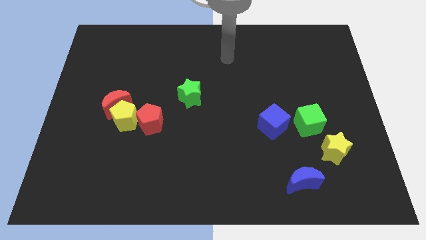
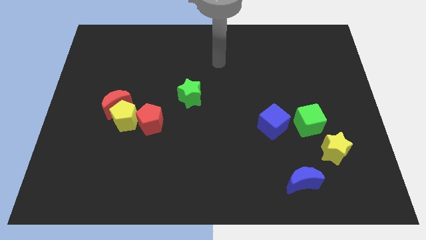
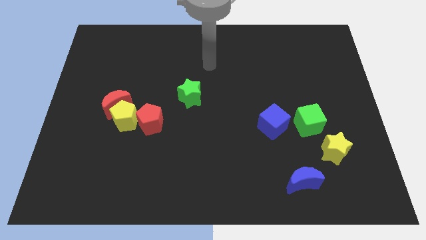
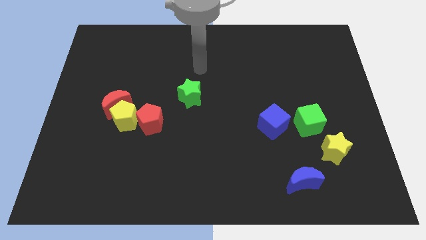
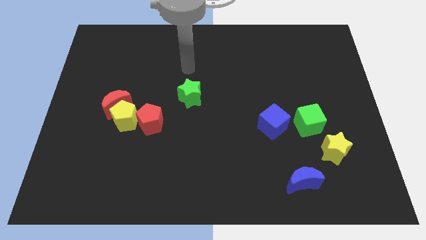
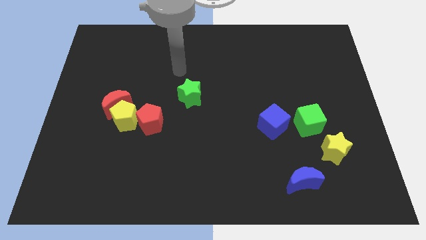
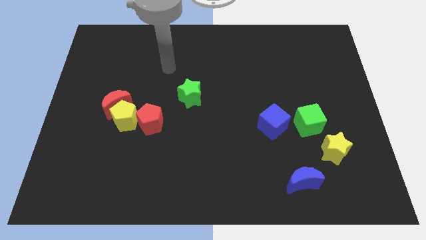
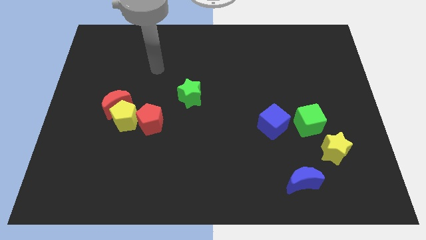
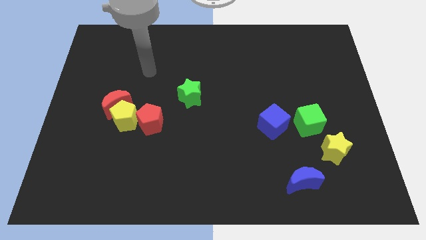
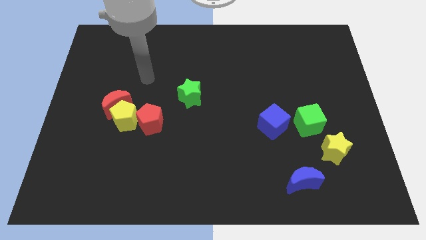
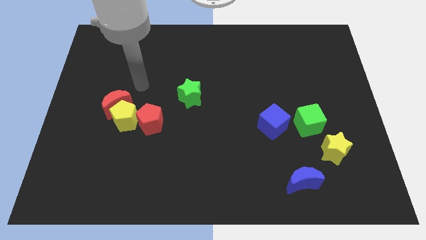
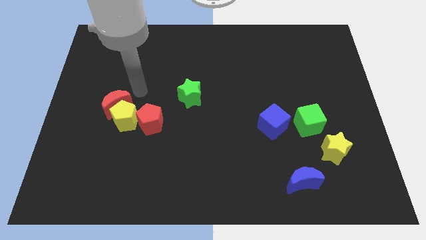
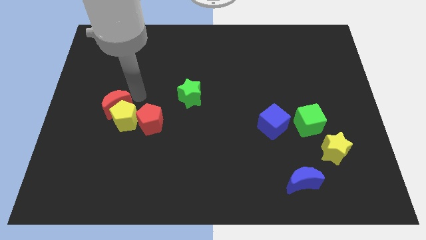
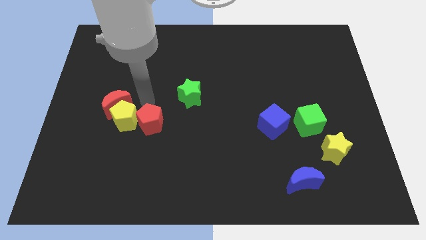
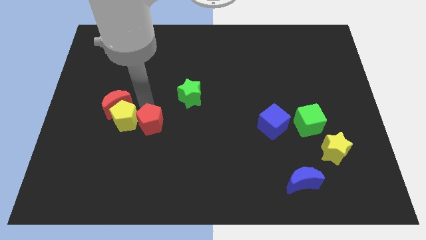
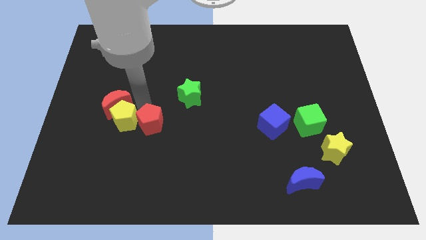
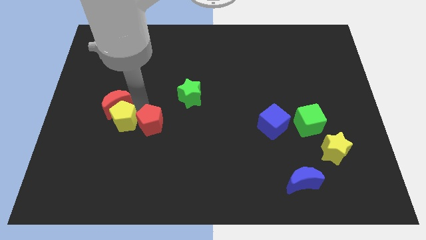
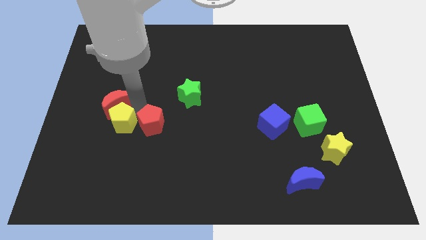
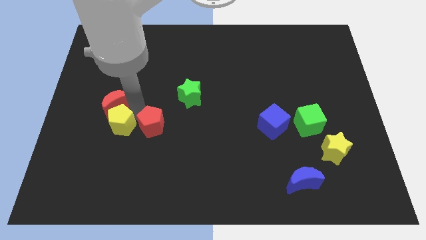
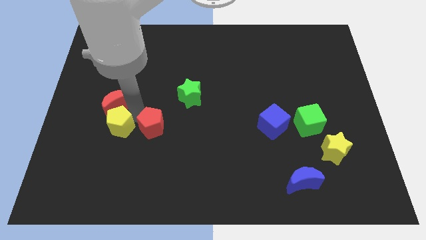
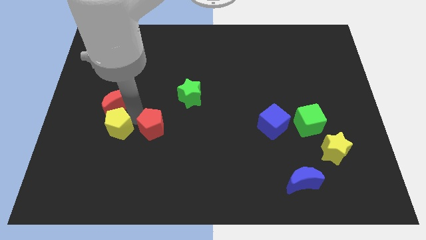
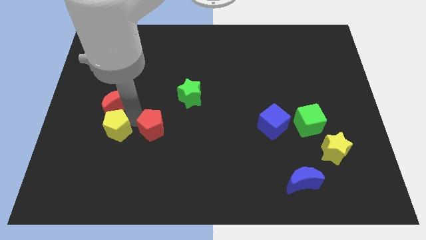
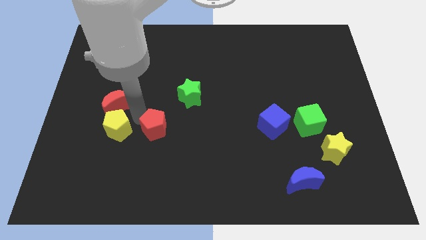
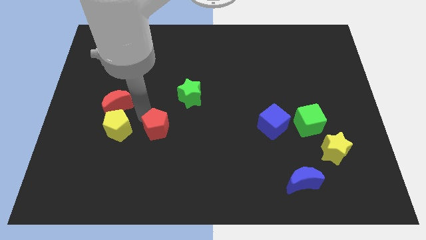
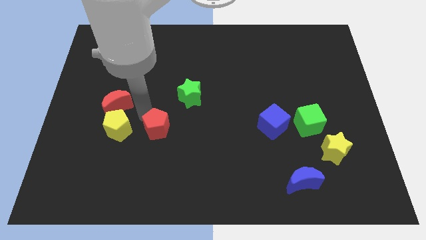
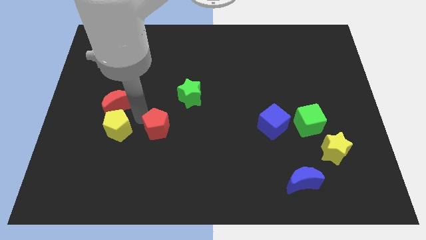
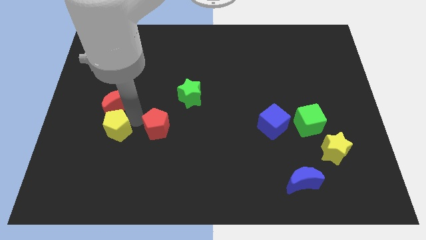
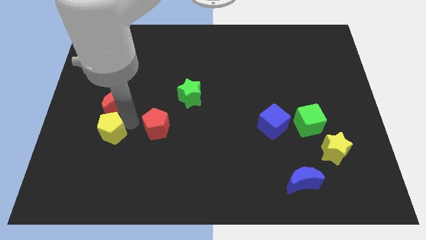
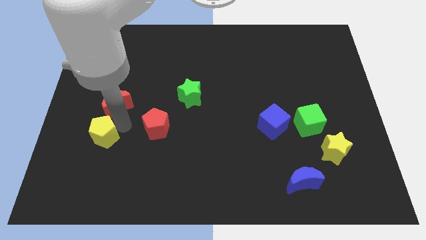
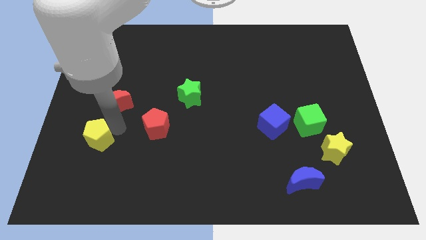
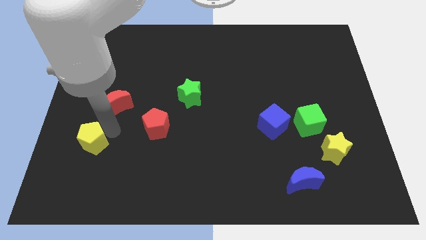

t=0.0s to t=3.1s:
pull the yellow pentagon apart from the red moon and red pentagon

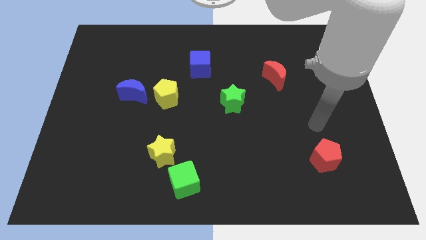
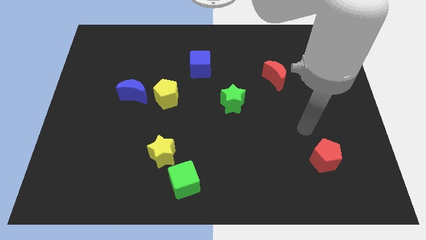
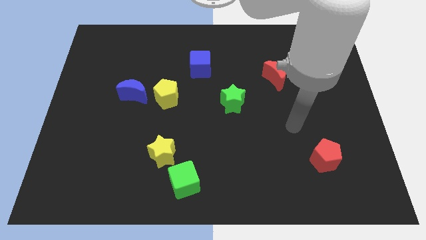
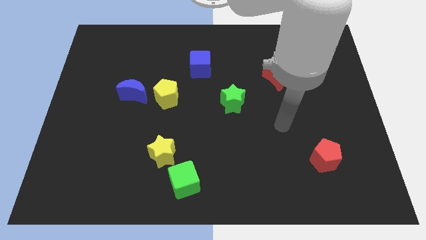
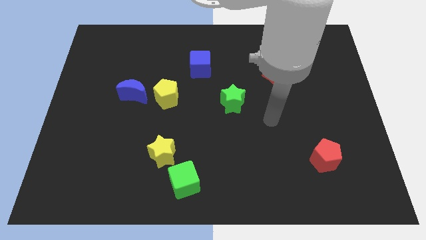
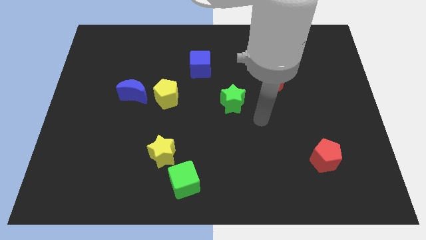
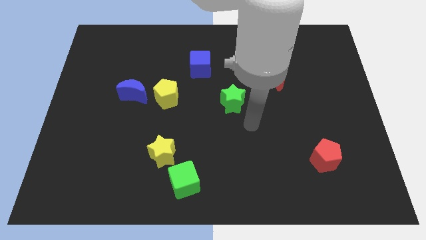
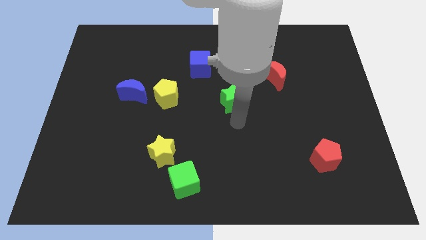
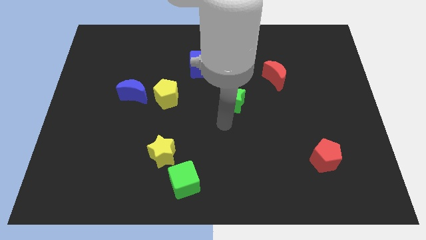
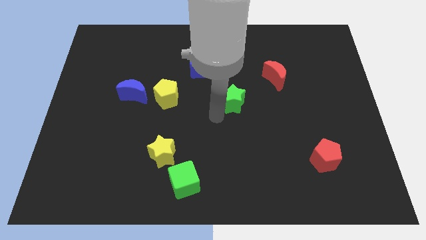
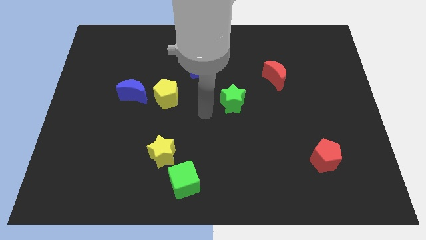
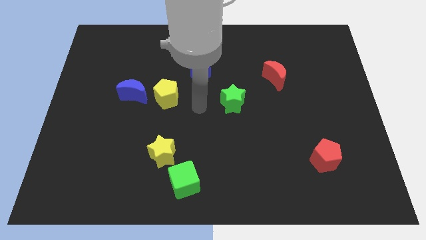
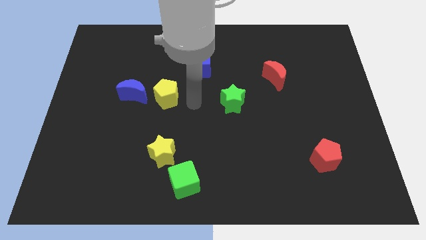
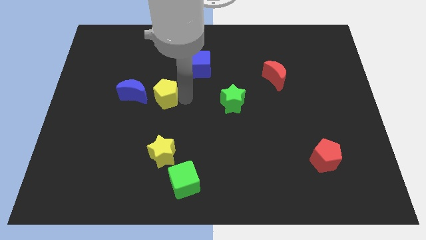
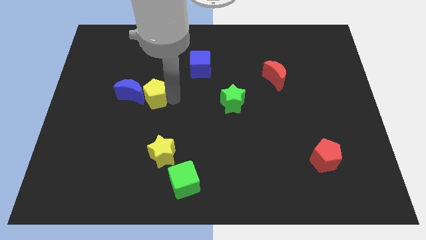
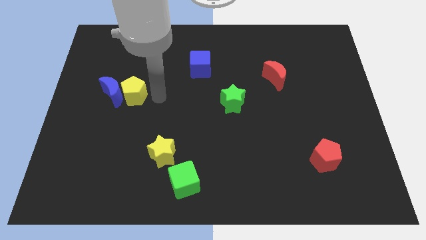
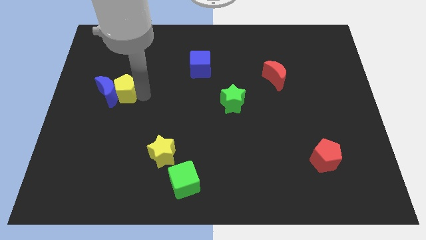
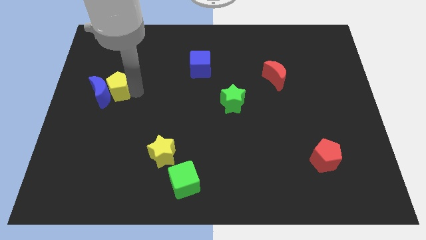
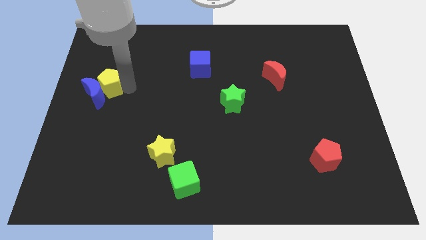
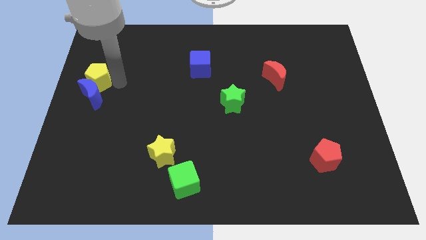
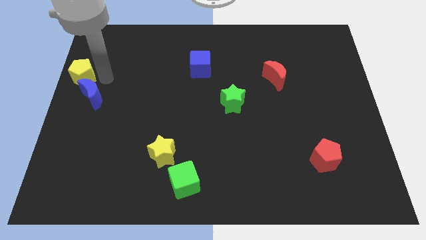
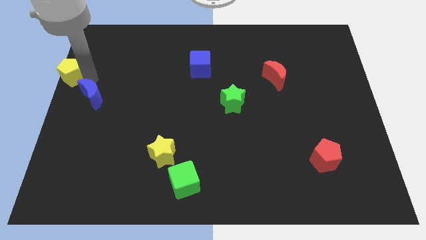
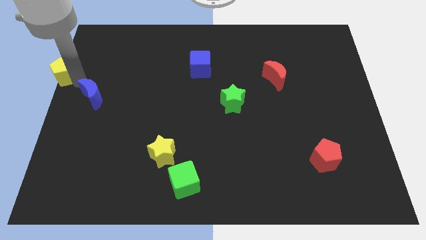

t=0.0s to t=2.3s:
separate the blue moon from the yellow pentagon

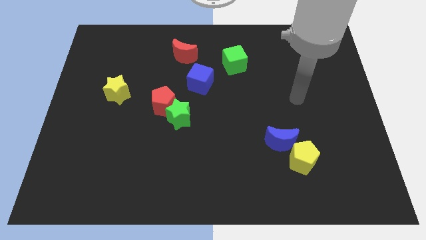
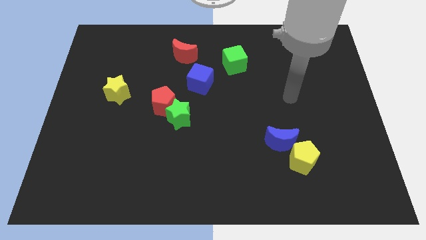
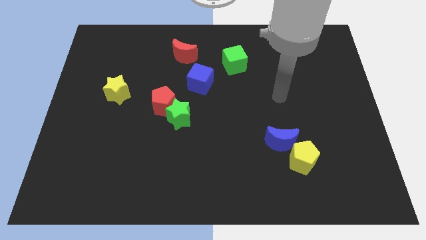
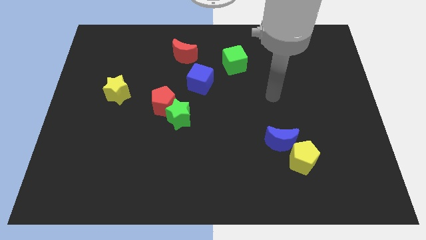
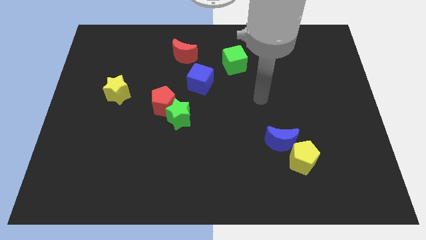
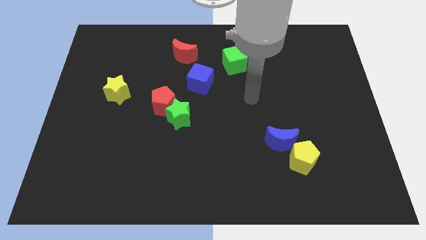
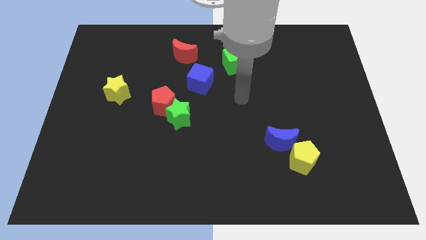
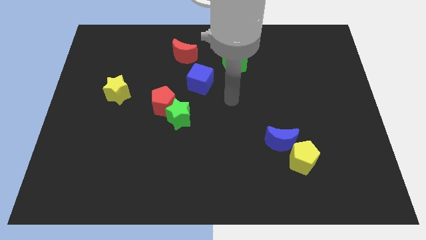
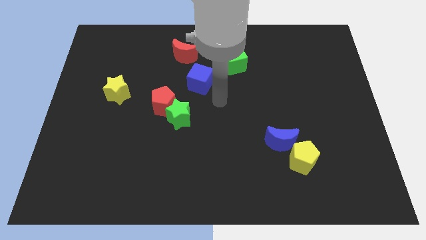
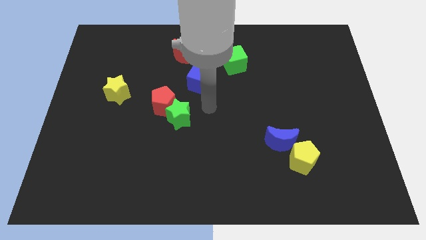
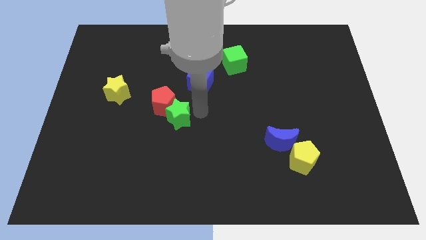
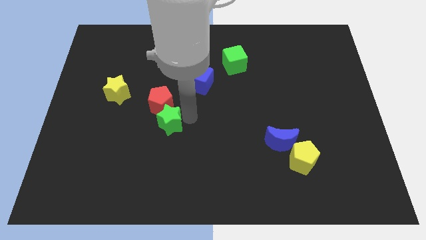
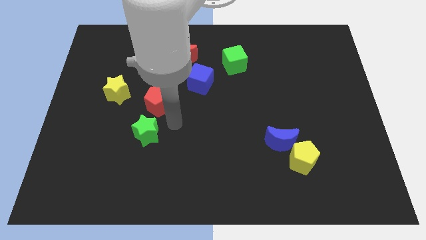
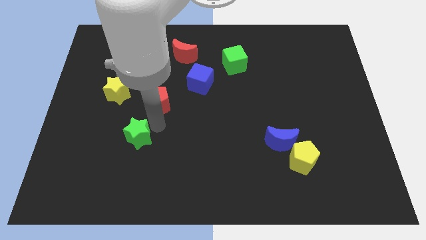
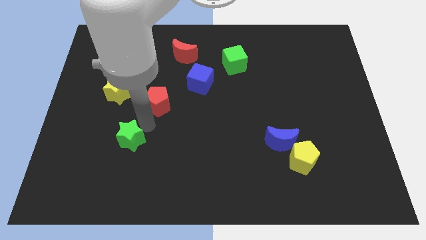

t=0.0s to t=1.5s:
move the red pentagon away from the green star

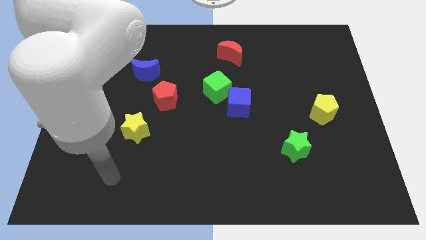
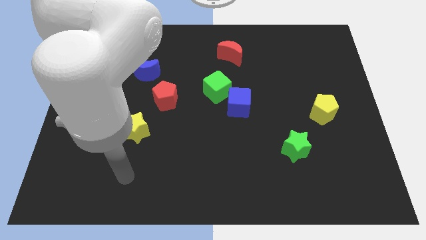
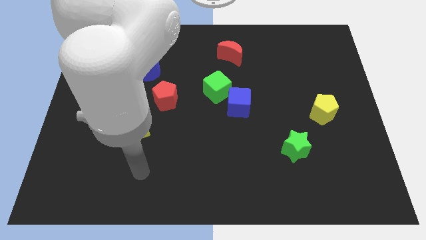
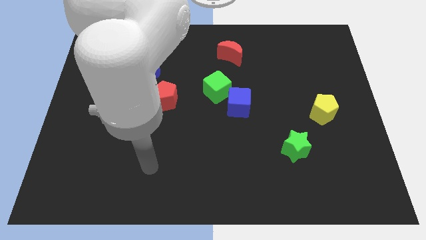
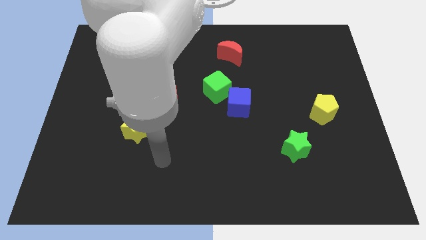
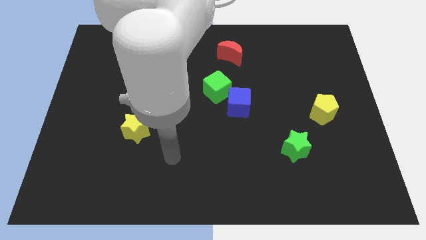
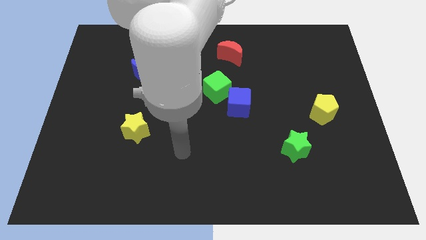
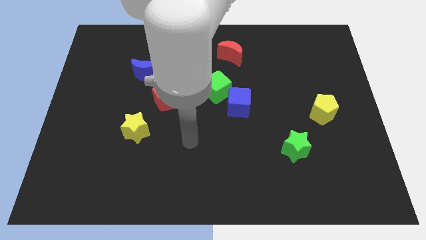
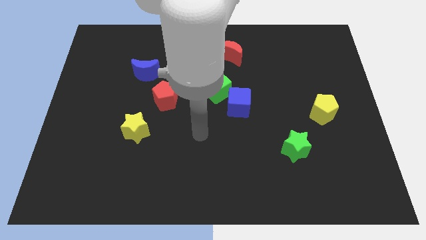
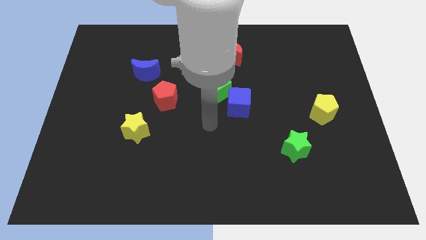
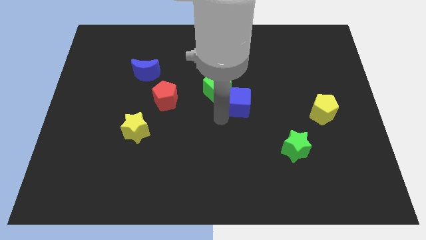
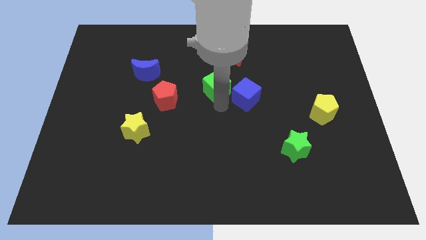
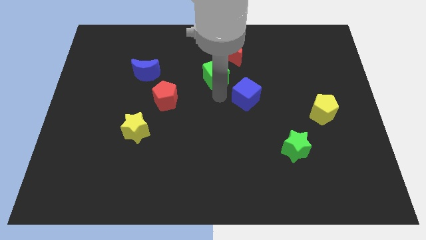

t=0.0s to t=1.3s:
separate the blue cube from the green cube

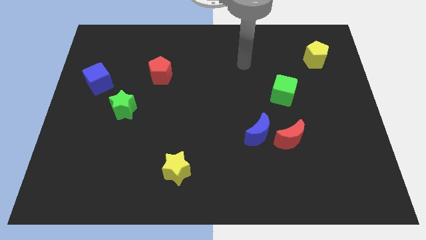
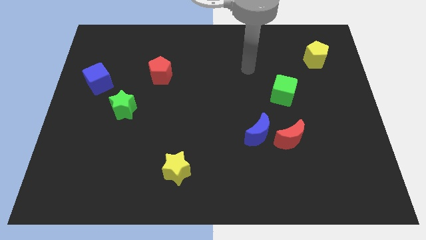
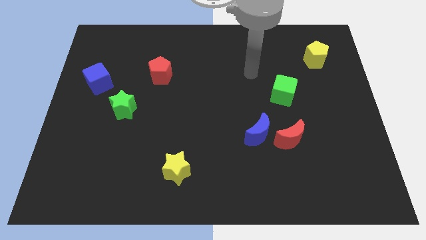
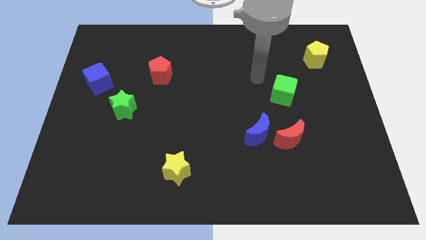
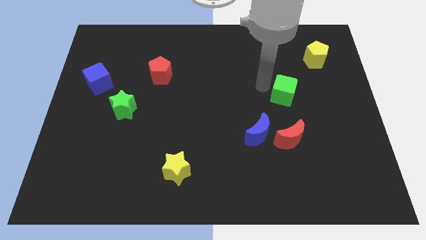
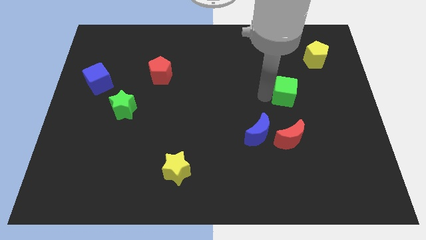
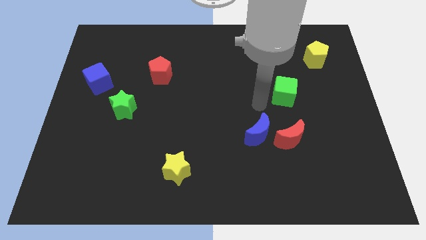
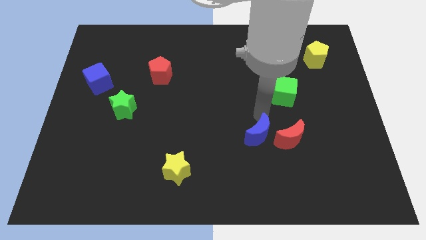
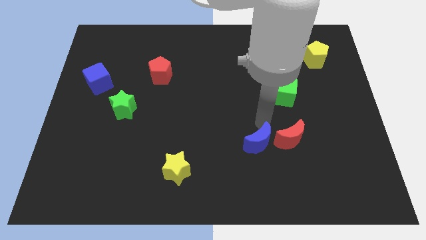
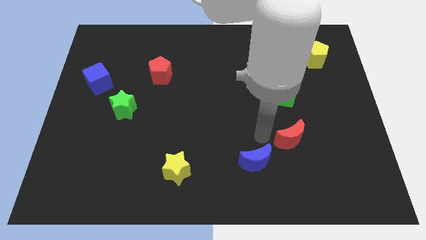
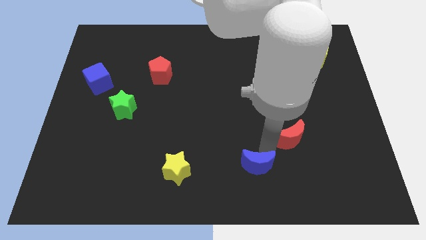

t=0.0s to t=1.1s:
move the red moon away from the blue moon
